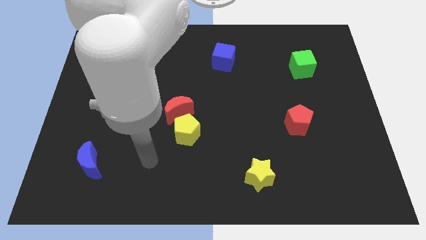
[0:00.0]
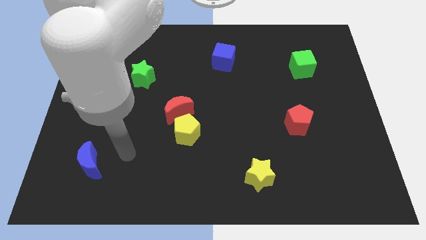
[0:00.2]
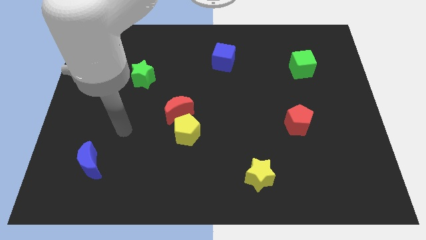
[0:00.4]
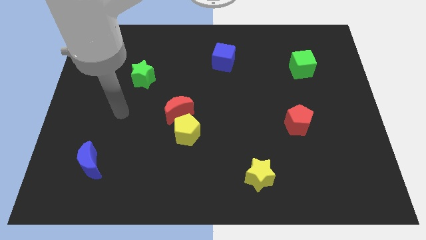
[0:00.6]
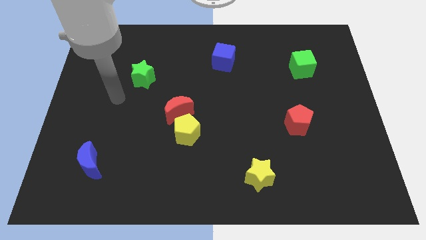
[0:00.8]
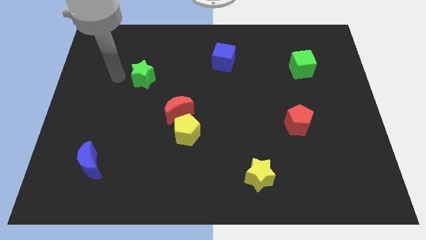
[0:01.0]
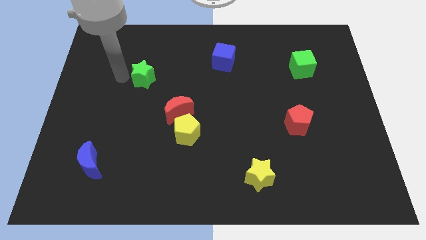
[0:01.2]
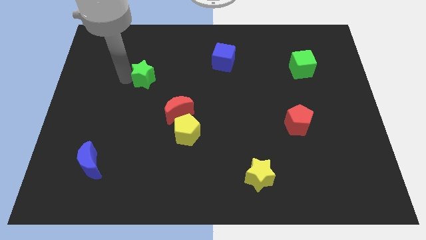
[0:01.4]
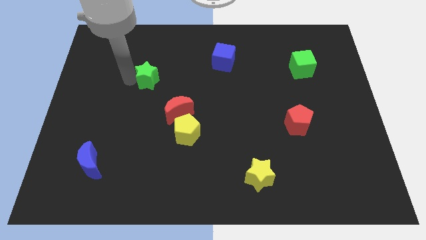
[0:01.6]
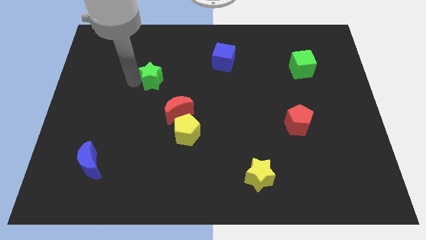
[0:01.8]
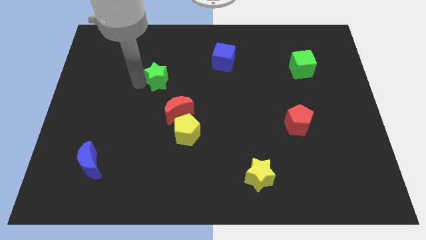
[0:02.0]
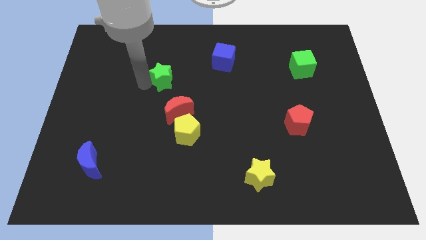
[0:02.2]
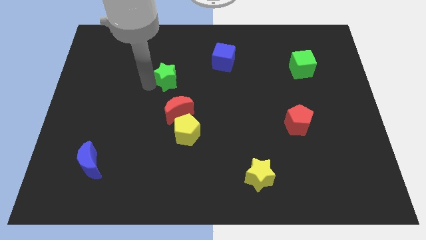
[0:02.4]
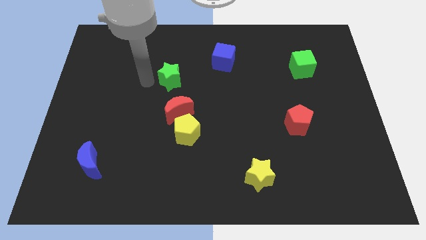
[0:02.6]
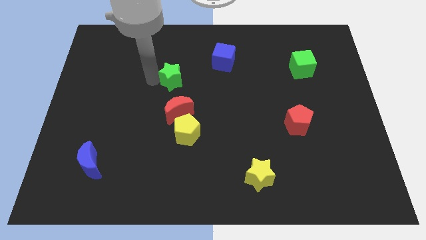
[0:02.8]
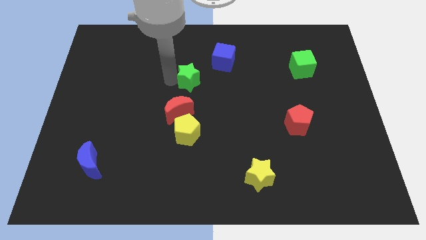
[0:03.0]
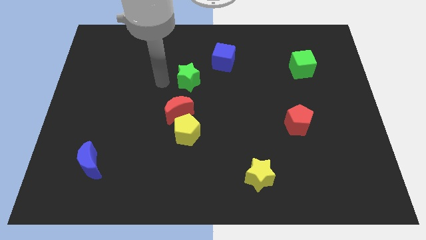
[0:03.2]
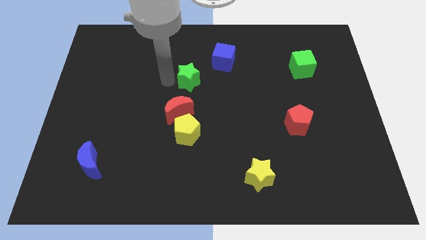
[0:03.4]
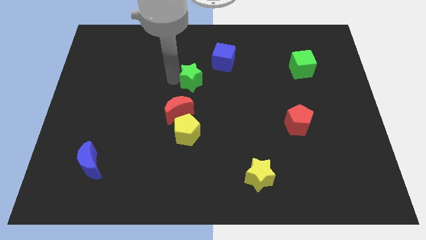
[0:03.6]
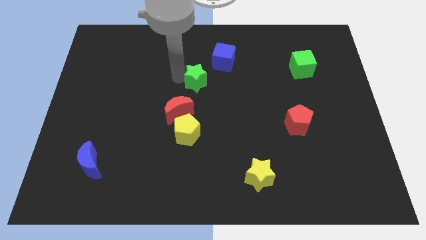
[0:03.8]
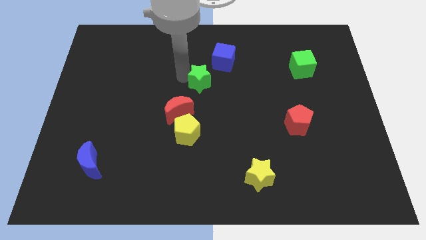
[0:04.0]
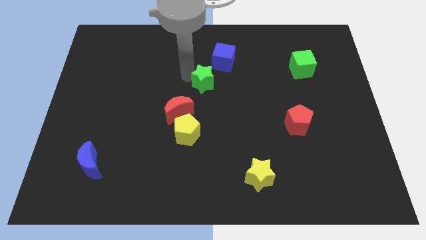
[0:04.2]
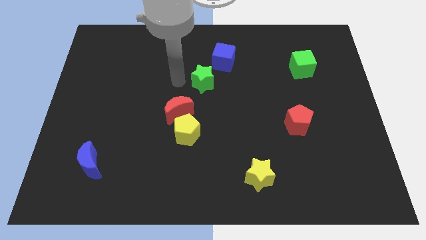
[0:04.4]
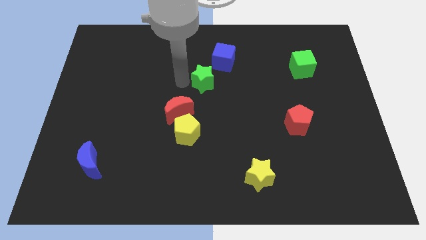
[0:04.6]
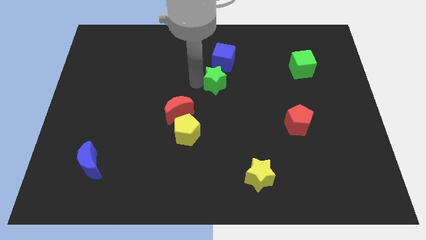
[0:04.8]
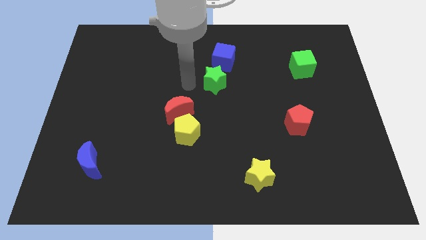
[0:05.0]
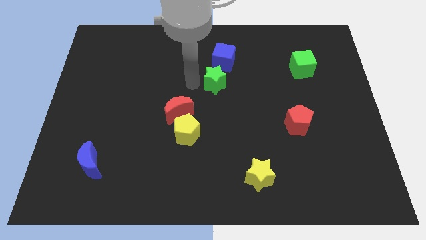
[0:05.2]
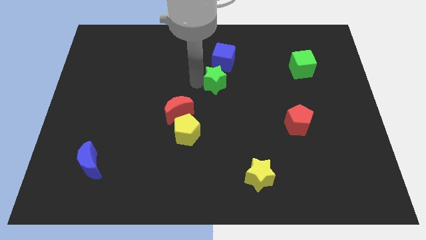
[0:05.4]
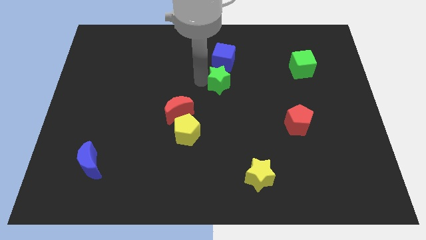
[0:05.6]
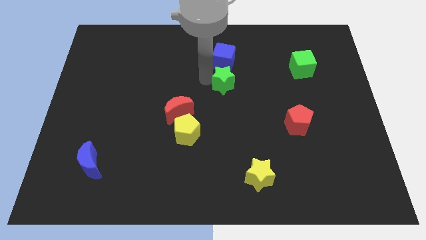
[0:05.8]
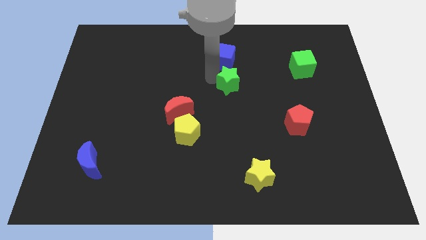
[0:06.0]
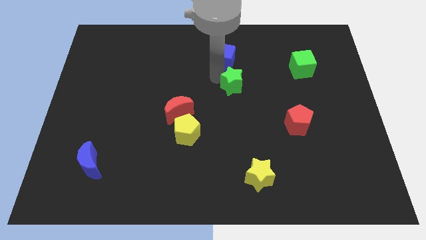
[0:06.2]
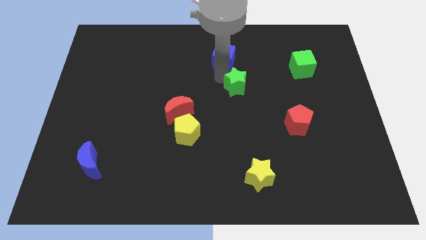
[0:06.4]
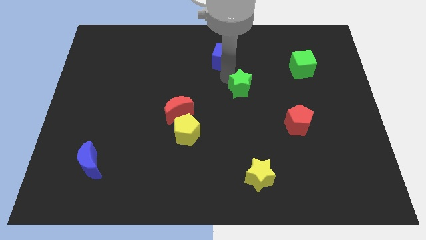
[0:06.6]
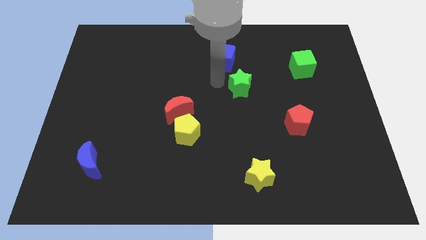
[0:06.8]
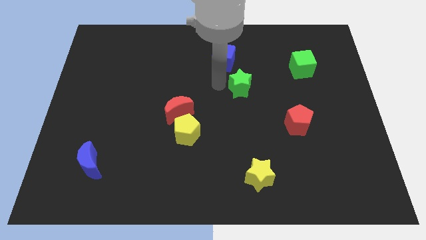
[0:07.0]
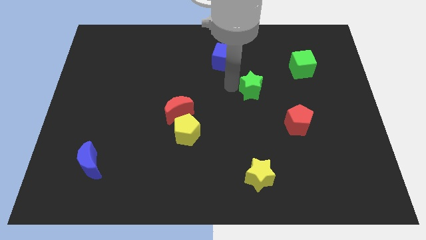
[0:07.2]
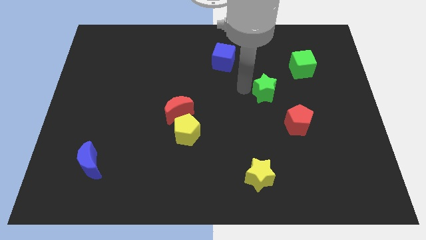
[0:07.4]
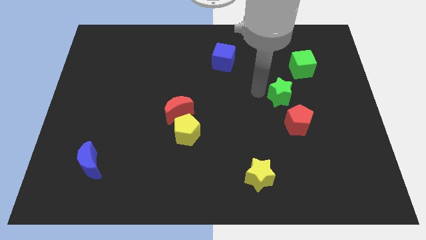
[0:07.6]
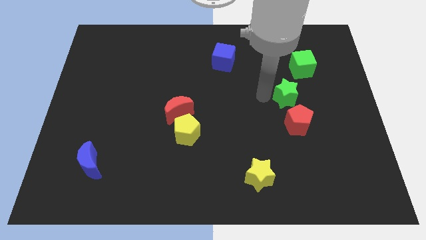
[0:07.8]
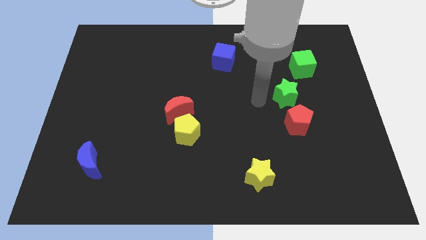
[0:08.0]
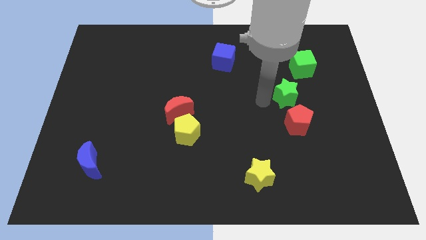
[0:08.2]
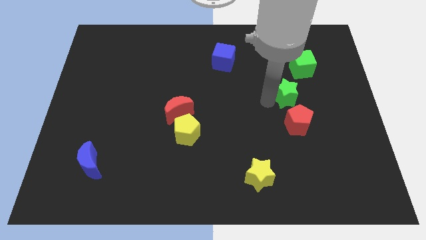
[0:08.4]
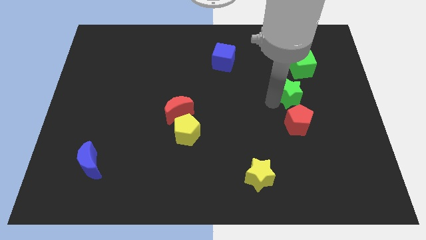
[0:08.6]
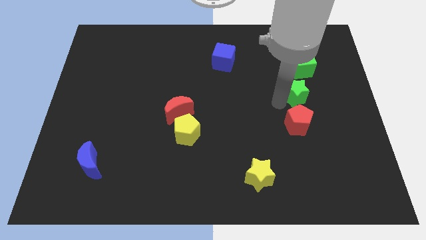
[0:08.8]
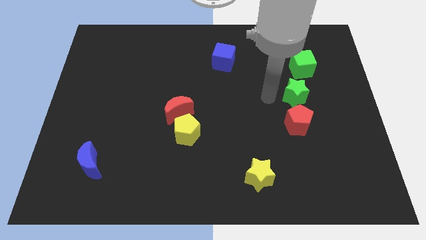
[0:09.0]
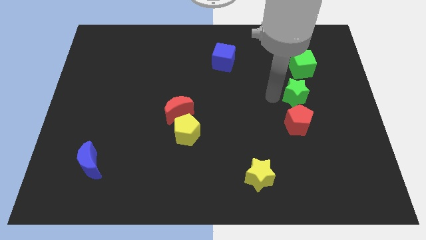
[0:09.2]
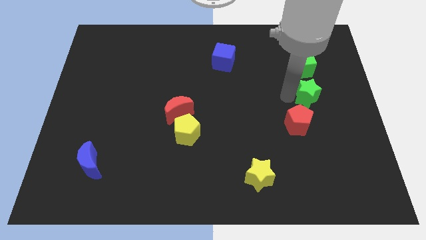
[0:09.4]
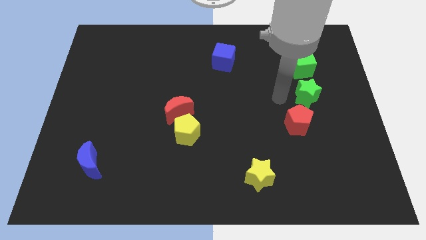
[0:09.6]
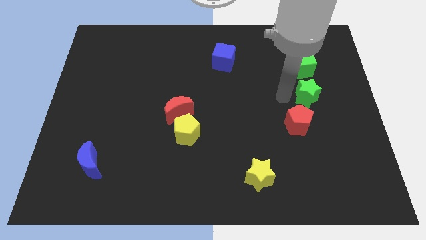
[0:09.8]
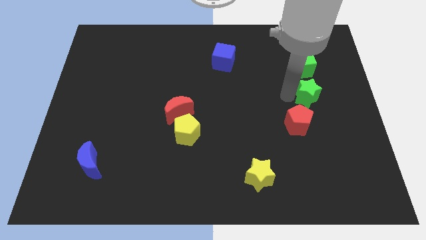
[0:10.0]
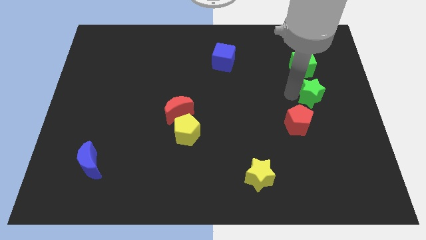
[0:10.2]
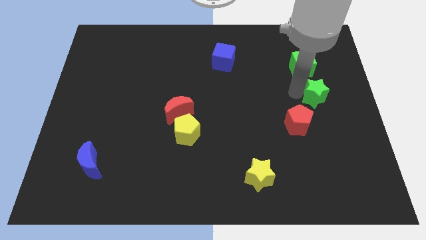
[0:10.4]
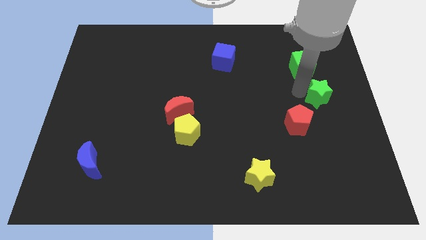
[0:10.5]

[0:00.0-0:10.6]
move the green star to the right side of the board
